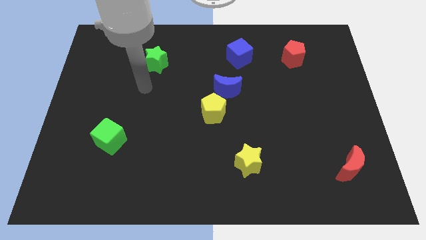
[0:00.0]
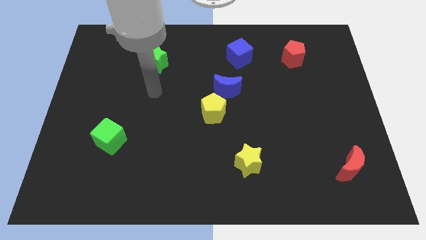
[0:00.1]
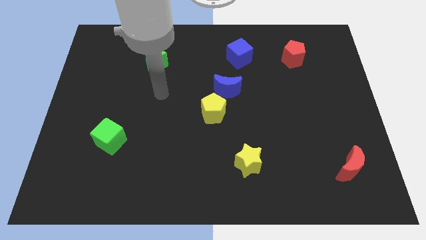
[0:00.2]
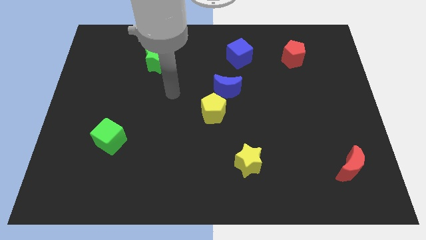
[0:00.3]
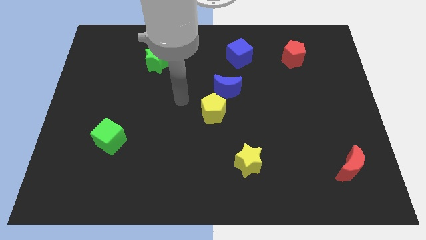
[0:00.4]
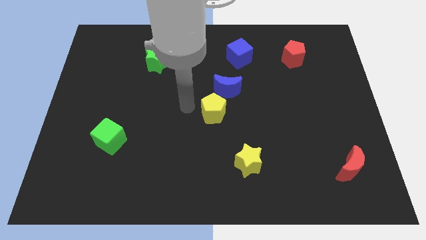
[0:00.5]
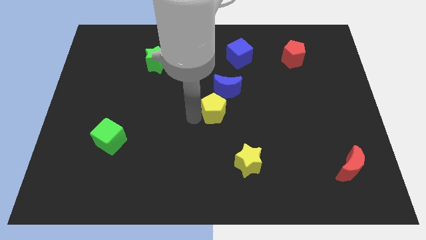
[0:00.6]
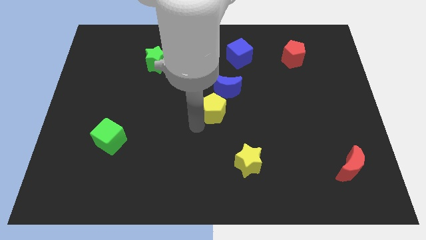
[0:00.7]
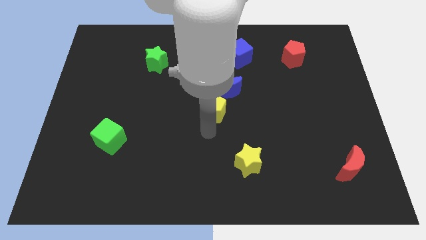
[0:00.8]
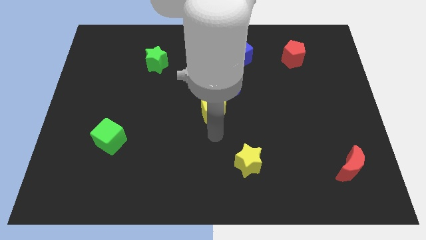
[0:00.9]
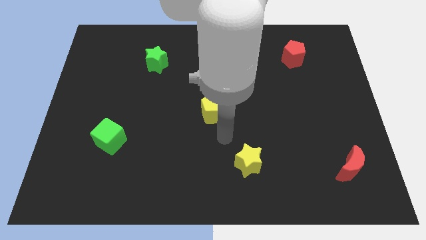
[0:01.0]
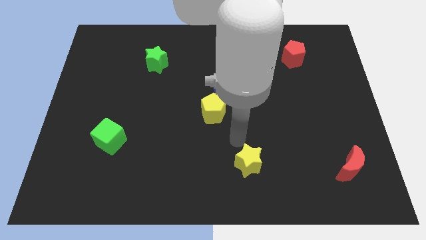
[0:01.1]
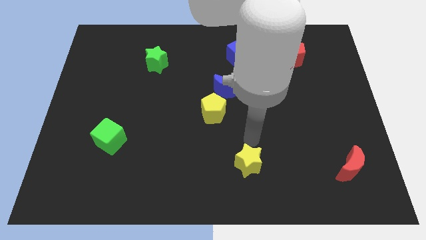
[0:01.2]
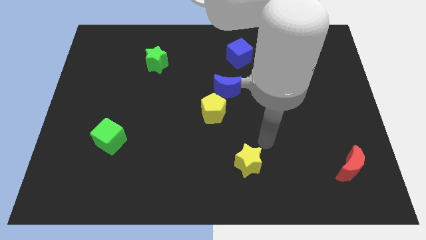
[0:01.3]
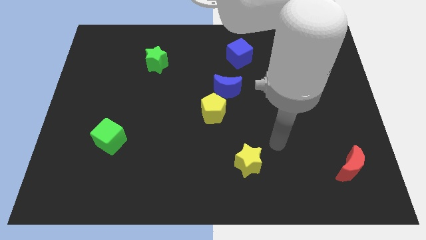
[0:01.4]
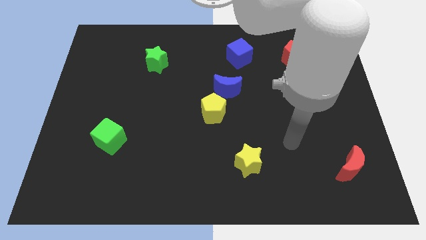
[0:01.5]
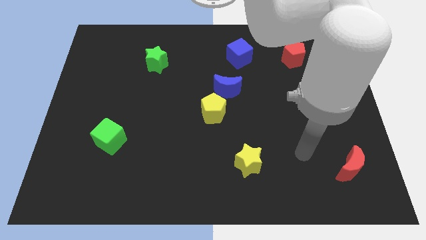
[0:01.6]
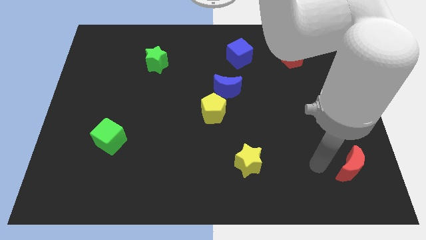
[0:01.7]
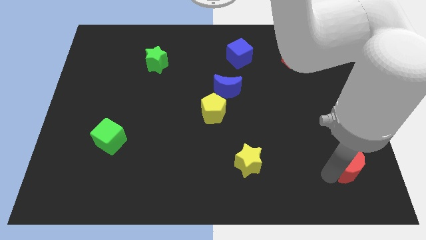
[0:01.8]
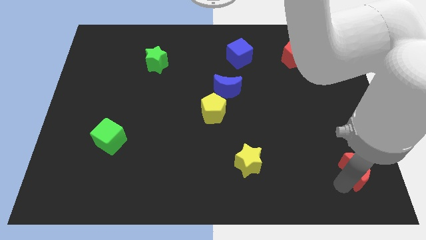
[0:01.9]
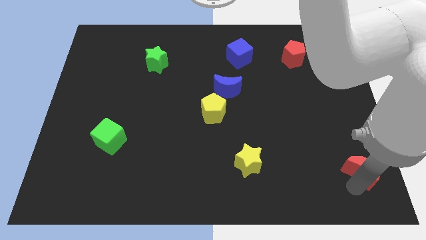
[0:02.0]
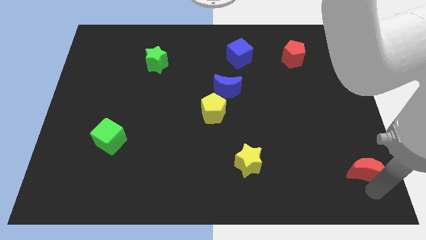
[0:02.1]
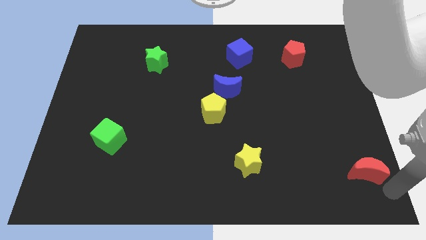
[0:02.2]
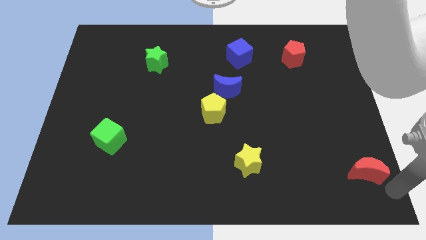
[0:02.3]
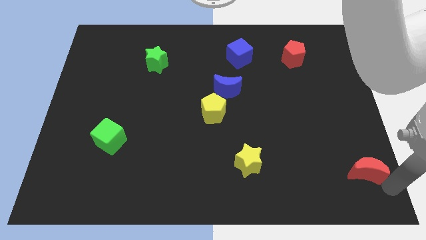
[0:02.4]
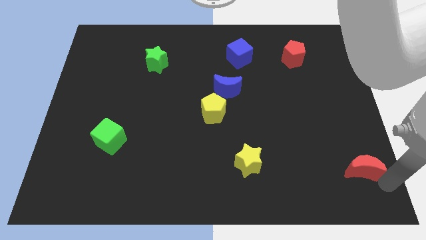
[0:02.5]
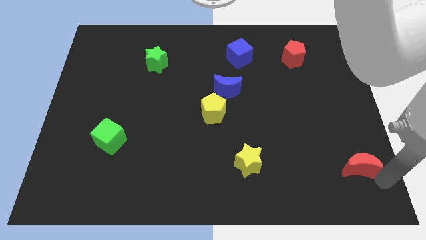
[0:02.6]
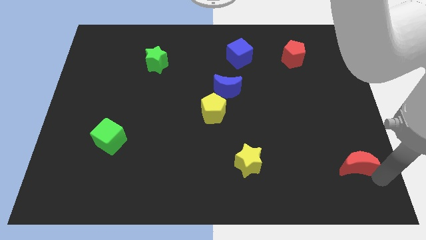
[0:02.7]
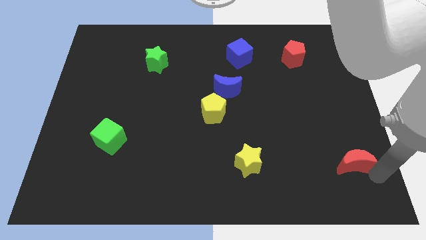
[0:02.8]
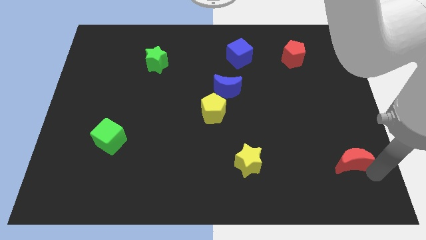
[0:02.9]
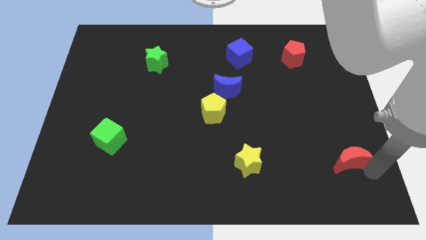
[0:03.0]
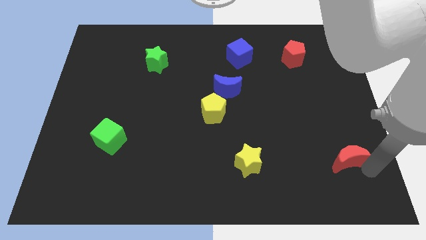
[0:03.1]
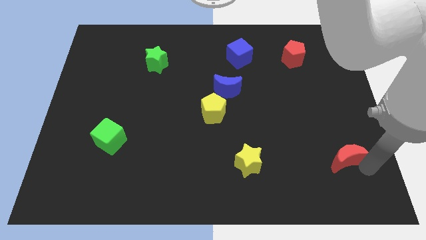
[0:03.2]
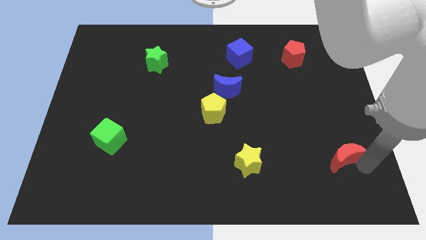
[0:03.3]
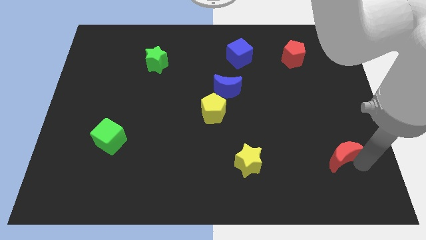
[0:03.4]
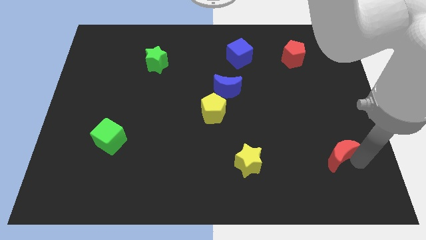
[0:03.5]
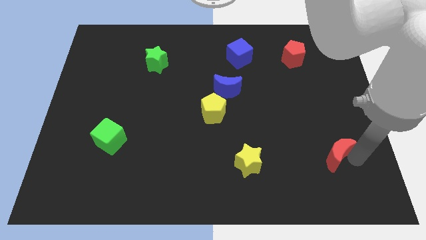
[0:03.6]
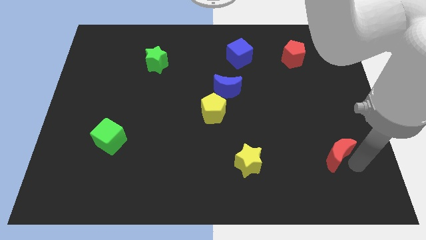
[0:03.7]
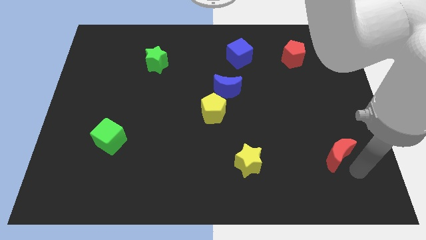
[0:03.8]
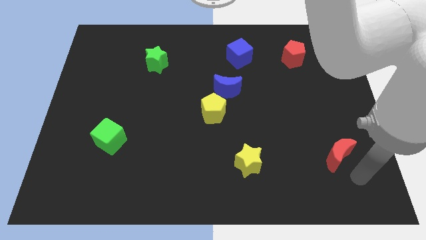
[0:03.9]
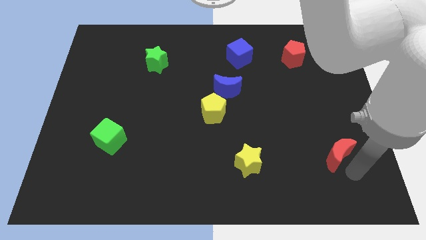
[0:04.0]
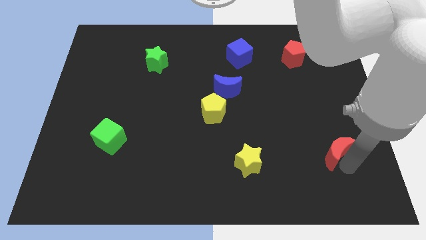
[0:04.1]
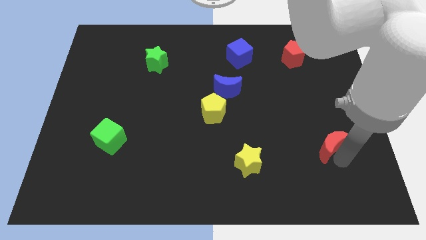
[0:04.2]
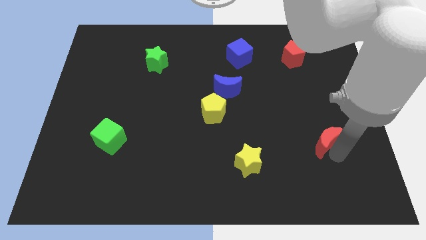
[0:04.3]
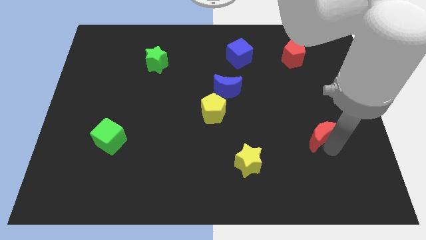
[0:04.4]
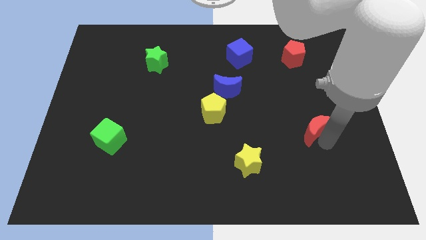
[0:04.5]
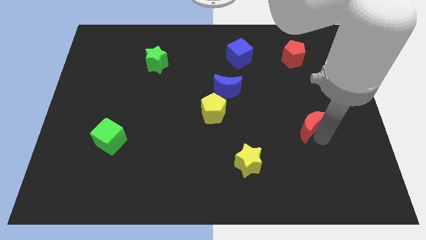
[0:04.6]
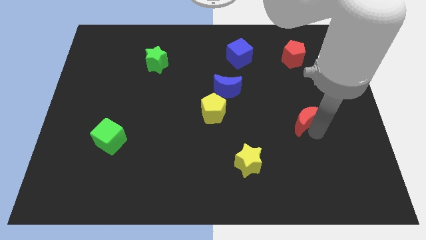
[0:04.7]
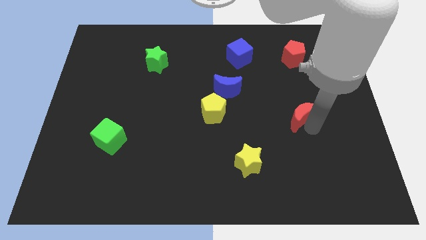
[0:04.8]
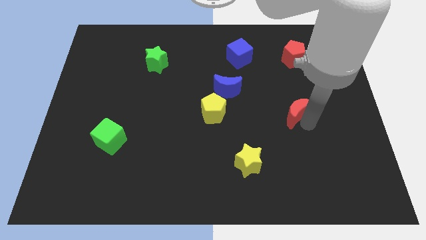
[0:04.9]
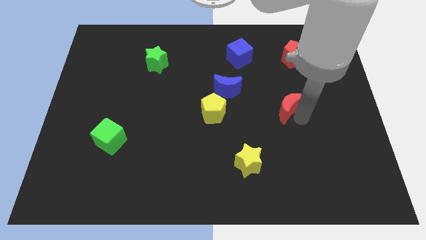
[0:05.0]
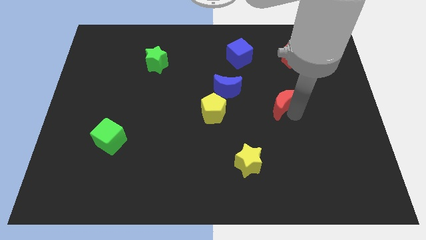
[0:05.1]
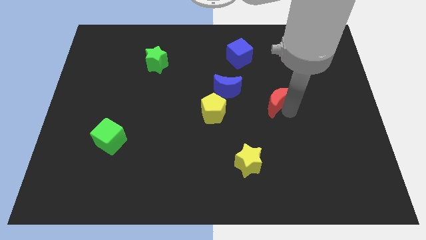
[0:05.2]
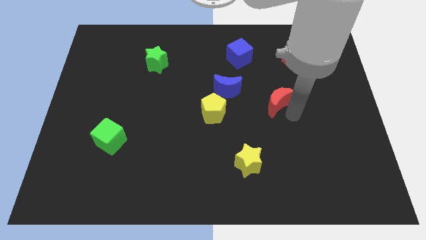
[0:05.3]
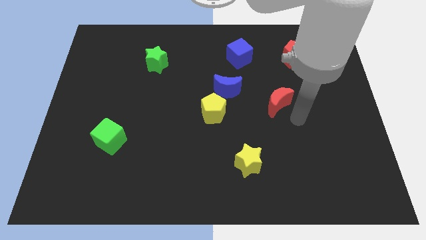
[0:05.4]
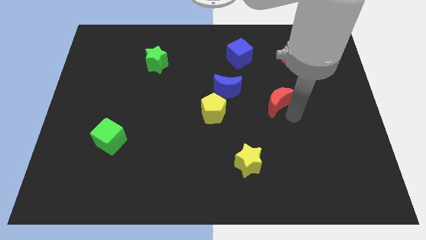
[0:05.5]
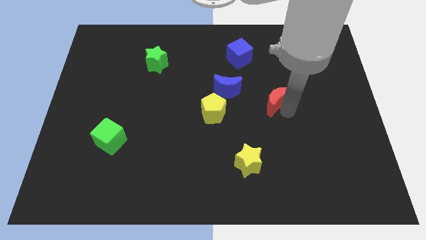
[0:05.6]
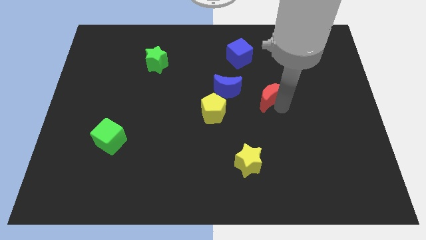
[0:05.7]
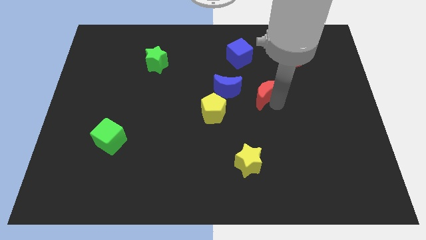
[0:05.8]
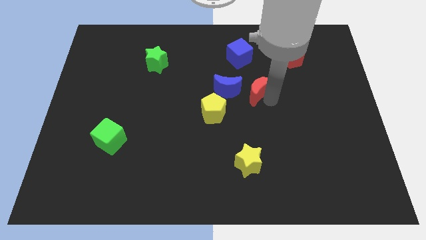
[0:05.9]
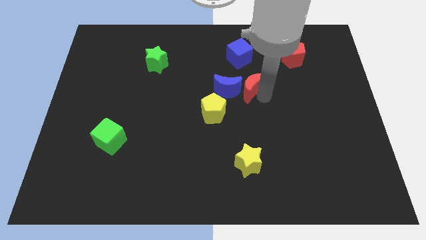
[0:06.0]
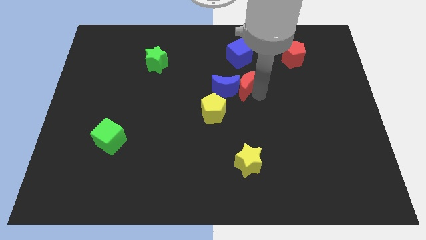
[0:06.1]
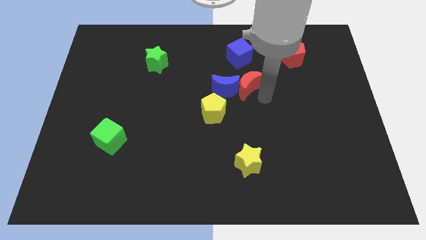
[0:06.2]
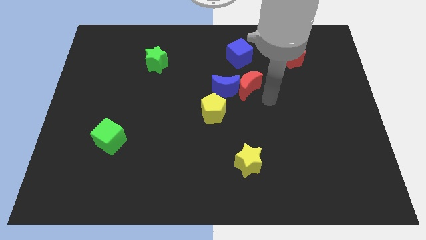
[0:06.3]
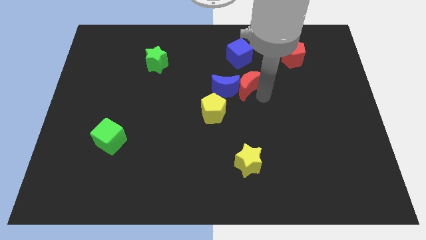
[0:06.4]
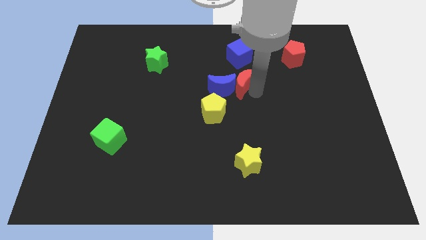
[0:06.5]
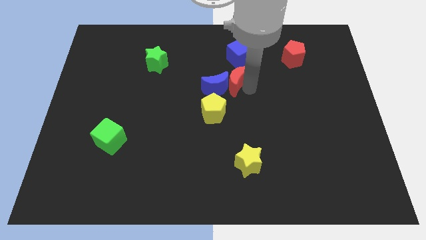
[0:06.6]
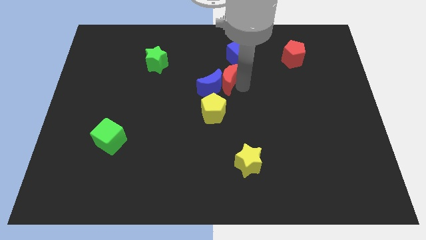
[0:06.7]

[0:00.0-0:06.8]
move the red moon diagonally down and to the left of the blue cube
